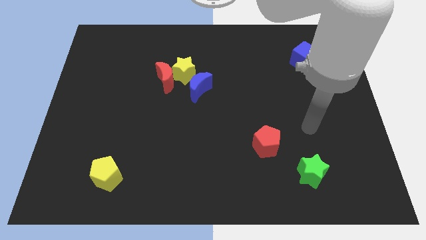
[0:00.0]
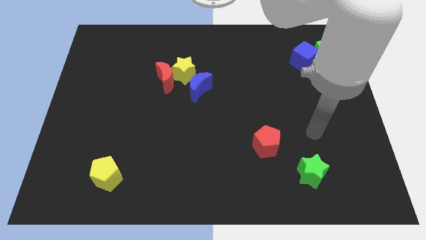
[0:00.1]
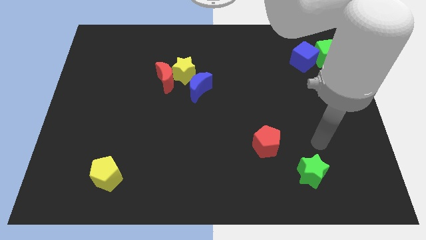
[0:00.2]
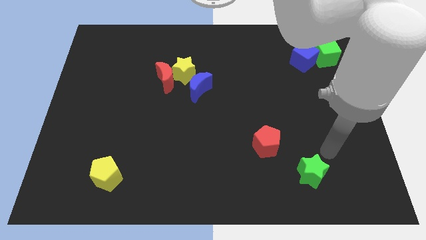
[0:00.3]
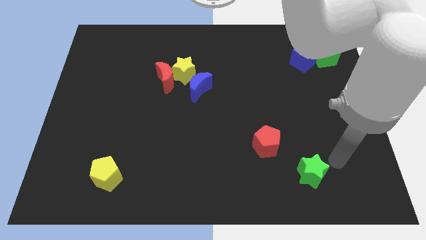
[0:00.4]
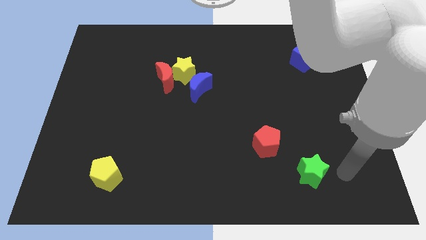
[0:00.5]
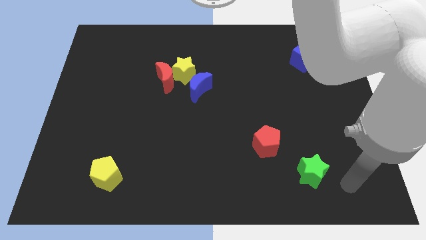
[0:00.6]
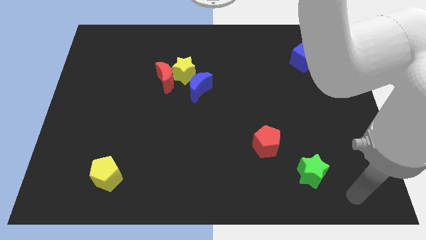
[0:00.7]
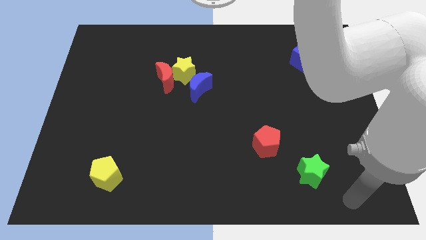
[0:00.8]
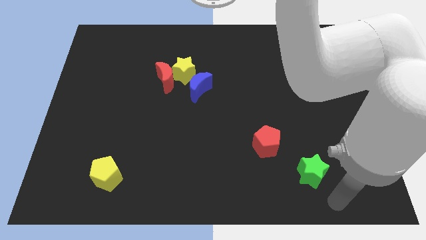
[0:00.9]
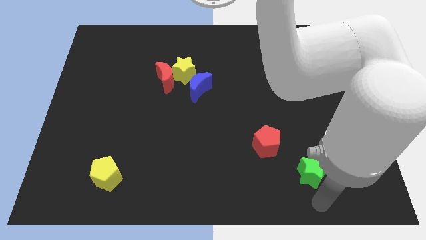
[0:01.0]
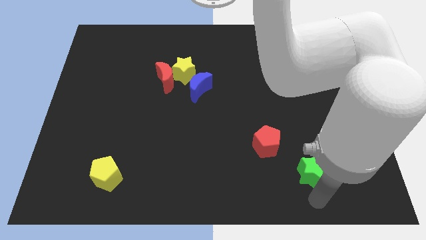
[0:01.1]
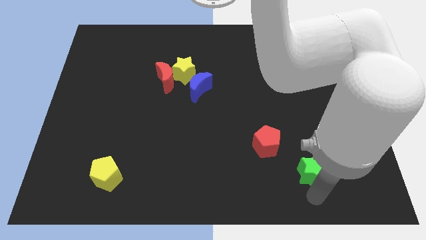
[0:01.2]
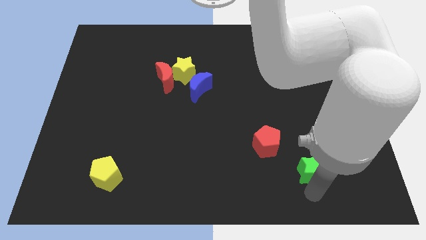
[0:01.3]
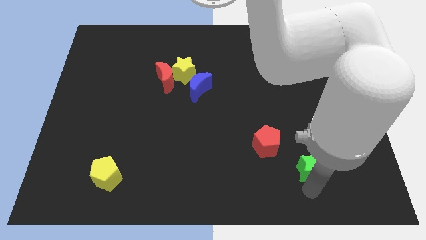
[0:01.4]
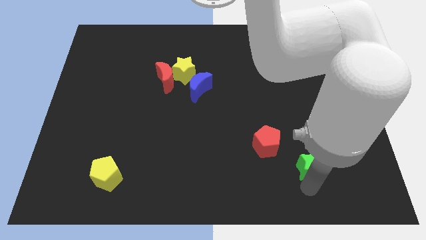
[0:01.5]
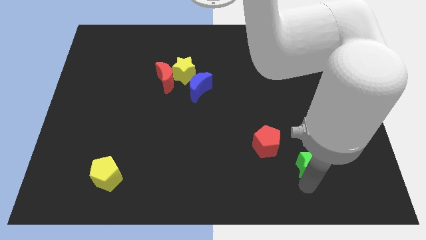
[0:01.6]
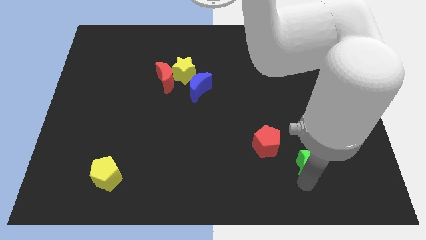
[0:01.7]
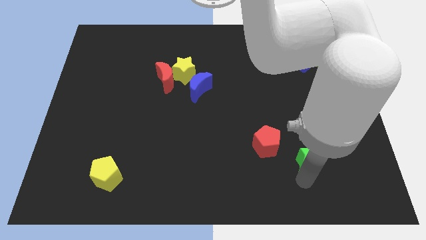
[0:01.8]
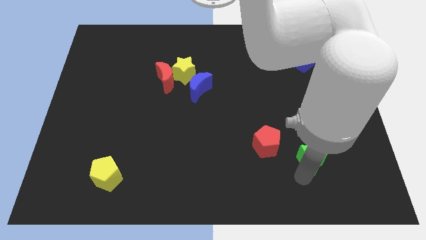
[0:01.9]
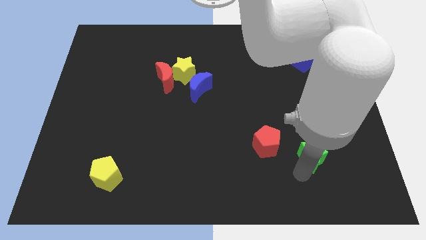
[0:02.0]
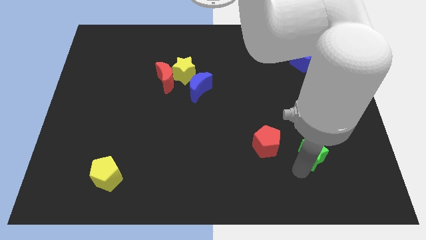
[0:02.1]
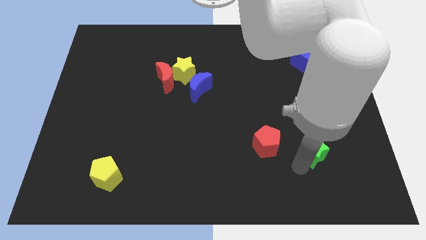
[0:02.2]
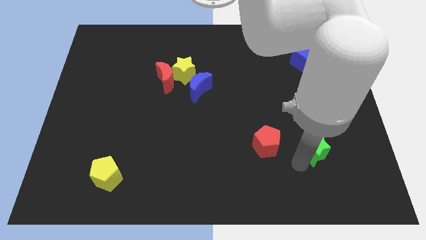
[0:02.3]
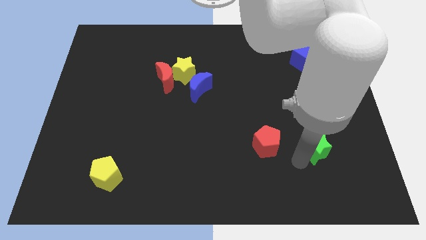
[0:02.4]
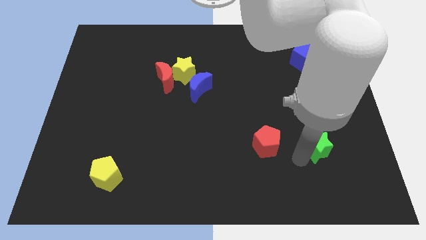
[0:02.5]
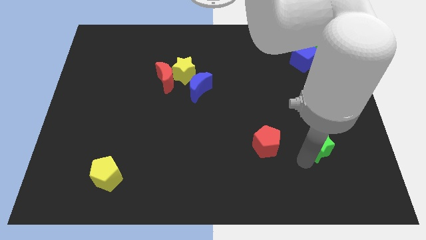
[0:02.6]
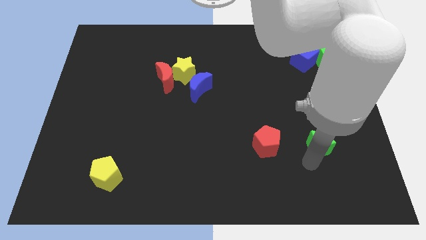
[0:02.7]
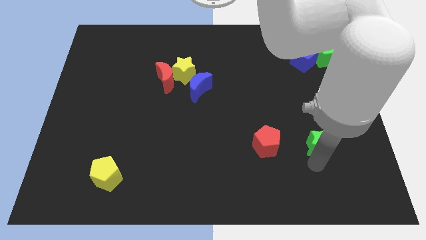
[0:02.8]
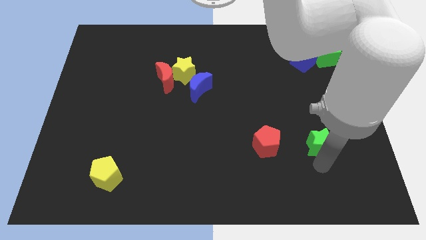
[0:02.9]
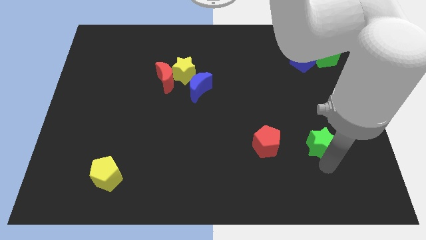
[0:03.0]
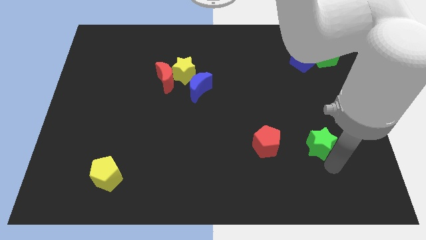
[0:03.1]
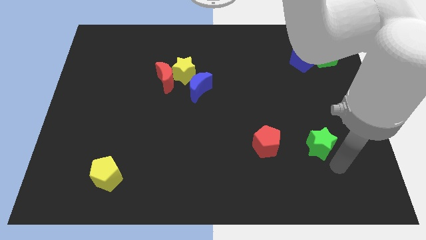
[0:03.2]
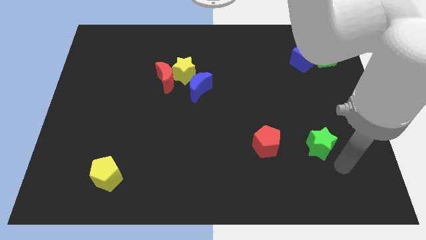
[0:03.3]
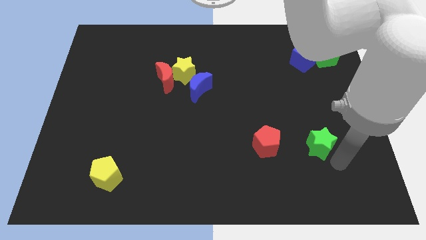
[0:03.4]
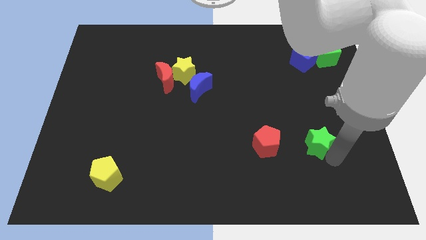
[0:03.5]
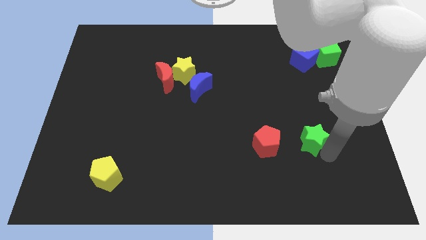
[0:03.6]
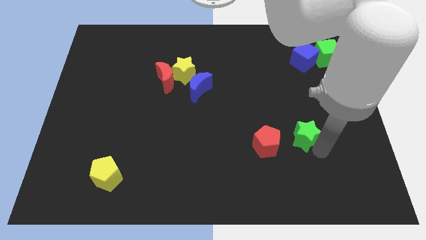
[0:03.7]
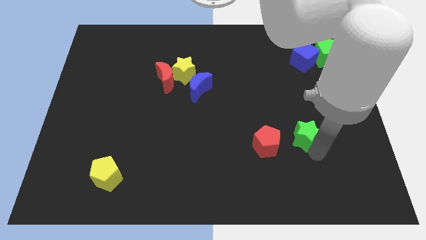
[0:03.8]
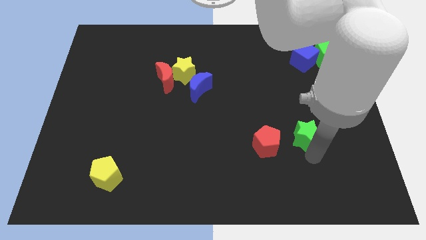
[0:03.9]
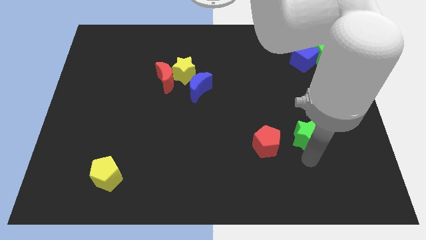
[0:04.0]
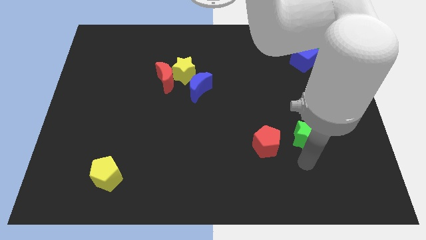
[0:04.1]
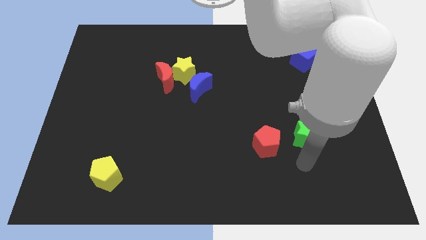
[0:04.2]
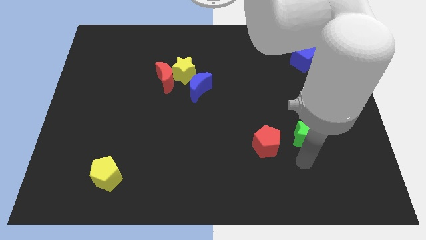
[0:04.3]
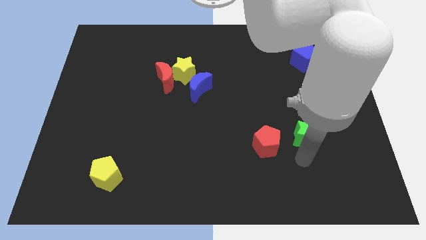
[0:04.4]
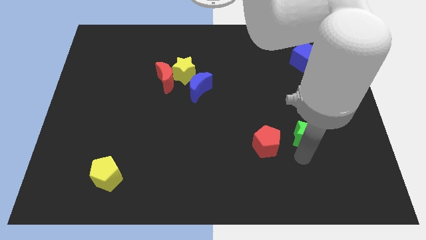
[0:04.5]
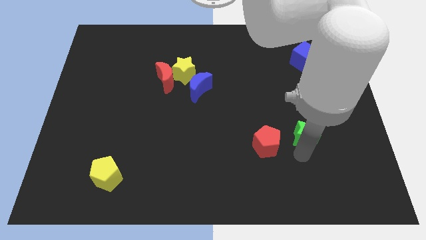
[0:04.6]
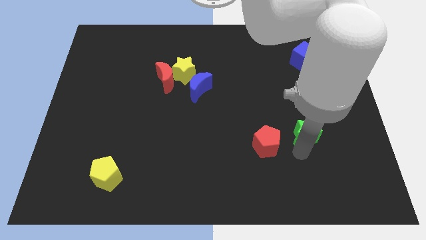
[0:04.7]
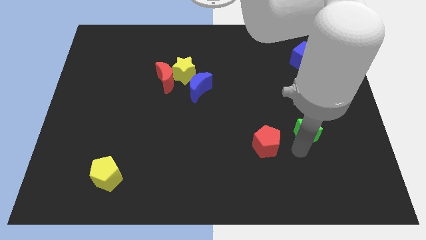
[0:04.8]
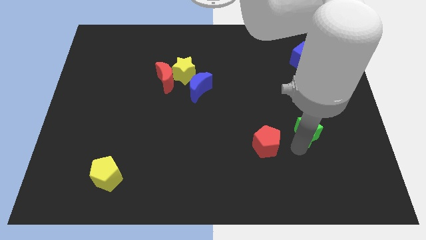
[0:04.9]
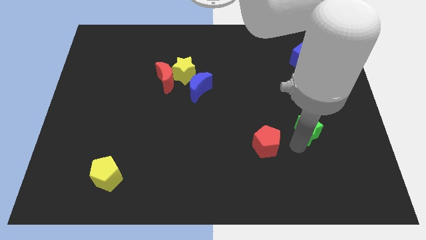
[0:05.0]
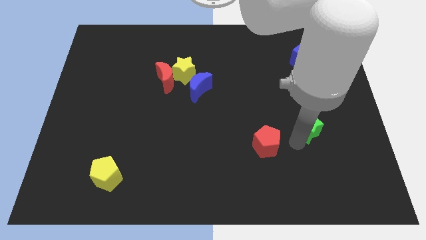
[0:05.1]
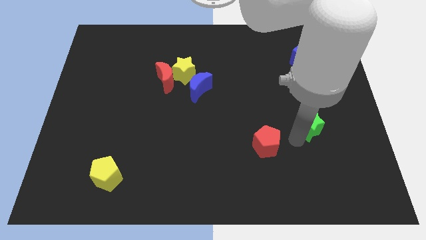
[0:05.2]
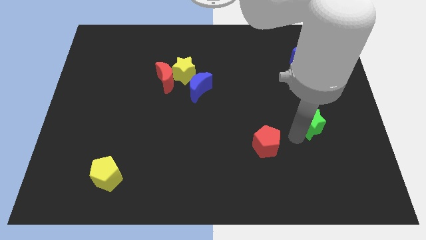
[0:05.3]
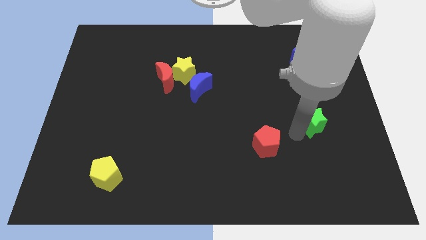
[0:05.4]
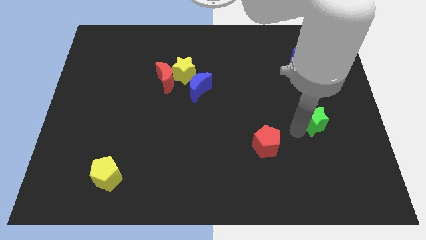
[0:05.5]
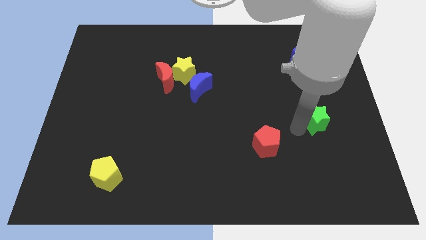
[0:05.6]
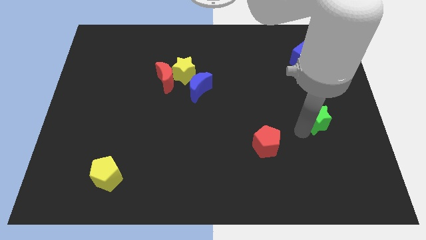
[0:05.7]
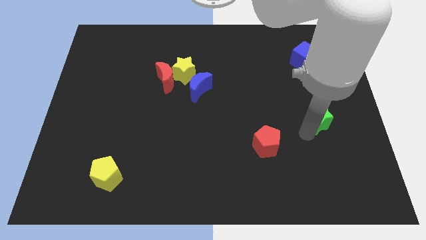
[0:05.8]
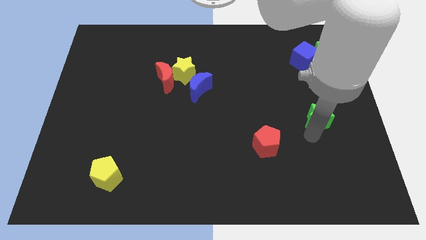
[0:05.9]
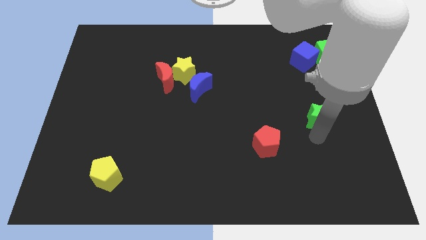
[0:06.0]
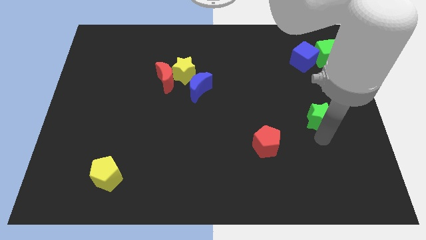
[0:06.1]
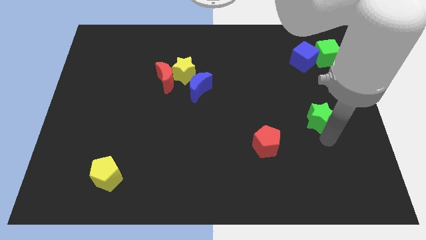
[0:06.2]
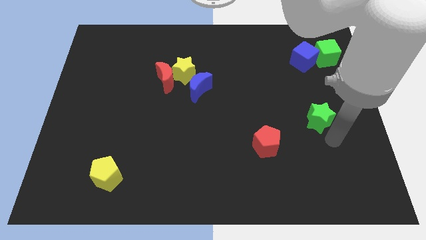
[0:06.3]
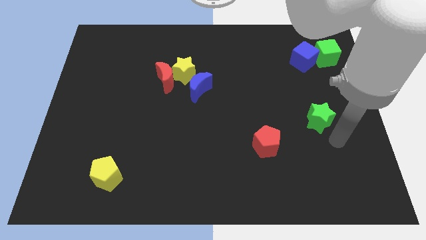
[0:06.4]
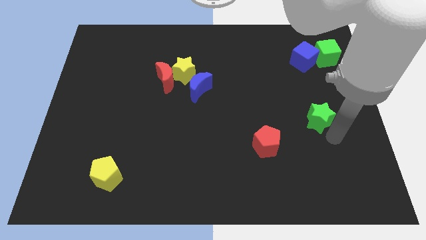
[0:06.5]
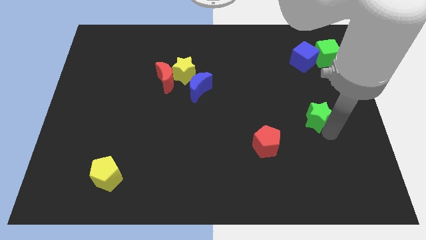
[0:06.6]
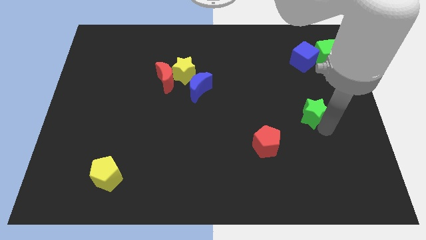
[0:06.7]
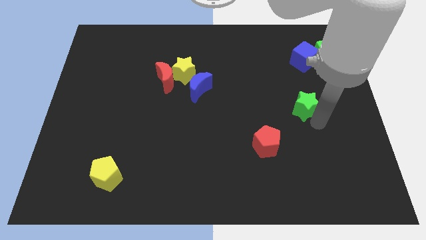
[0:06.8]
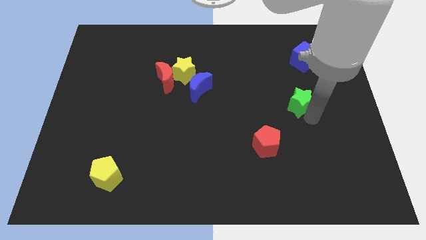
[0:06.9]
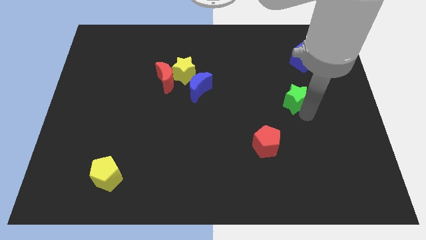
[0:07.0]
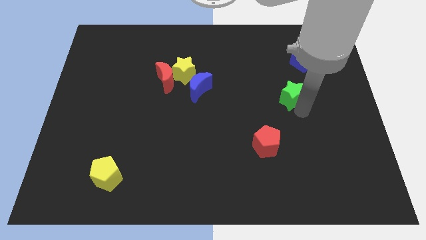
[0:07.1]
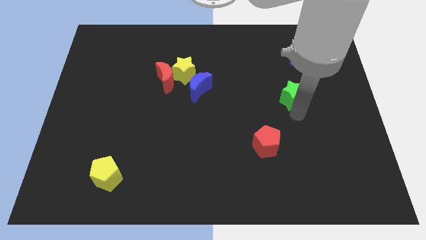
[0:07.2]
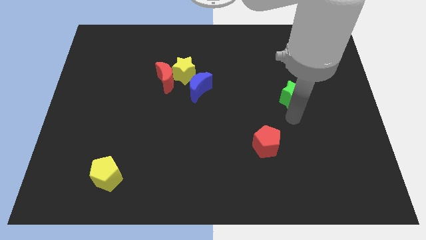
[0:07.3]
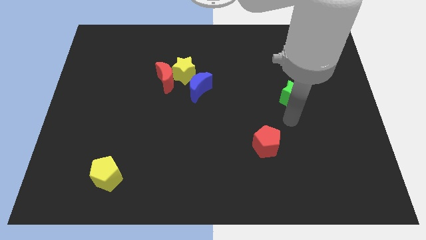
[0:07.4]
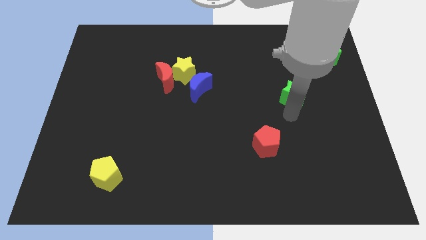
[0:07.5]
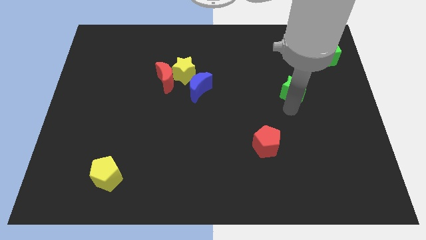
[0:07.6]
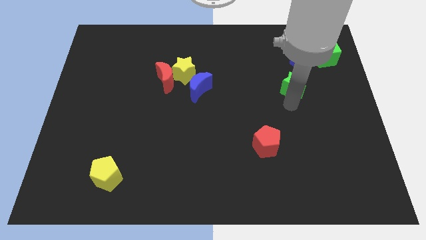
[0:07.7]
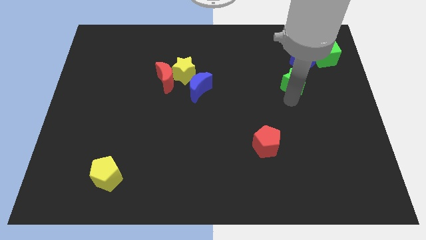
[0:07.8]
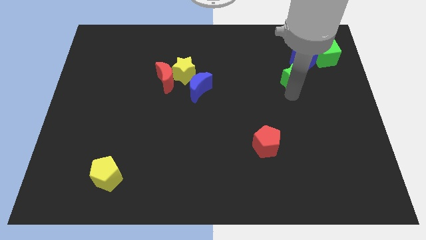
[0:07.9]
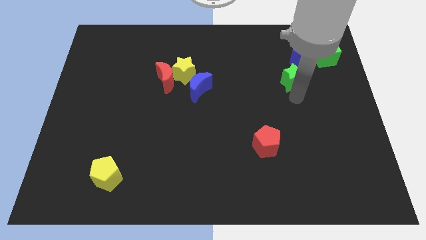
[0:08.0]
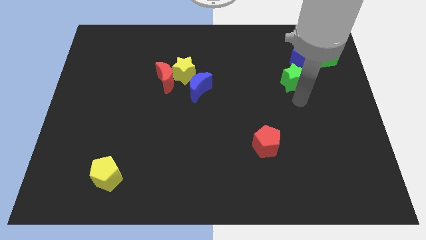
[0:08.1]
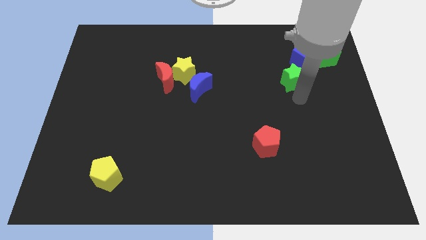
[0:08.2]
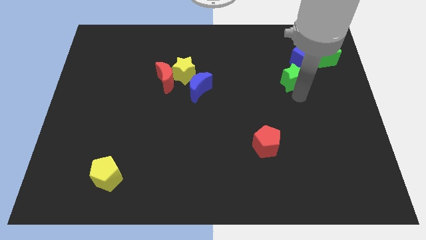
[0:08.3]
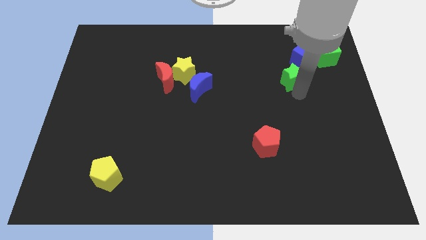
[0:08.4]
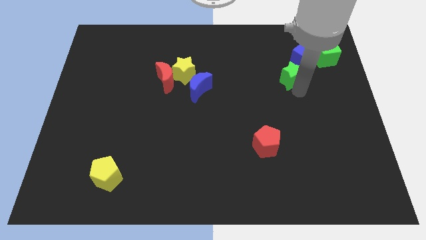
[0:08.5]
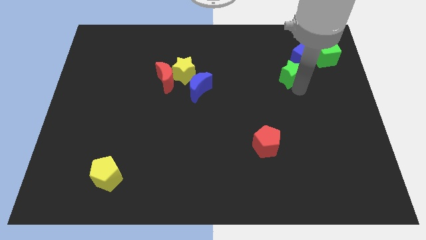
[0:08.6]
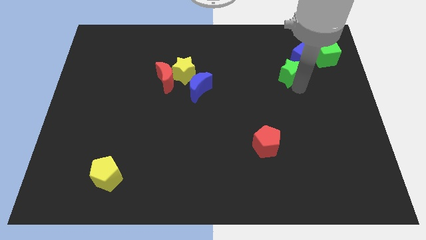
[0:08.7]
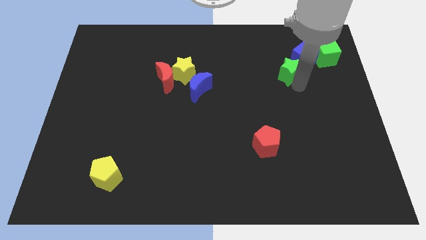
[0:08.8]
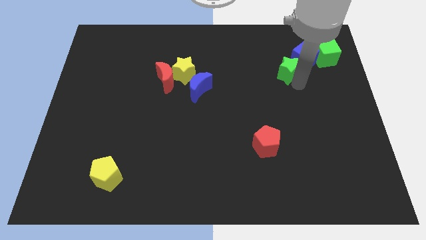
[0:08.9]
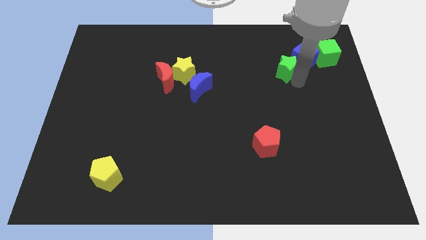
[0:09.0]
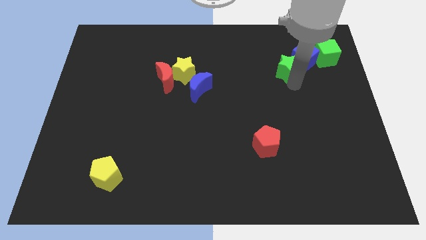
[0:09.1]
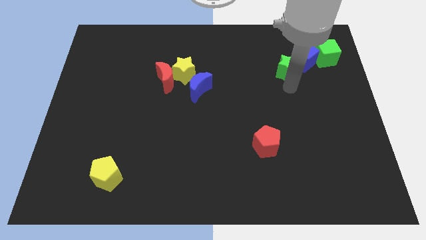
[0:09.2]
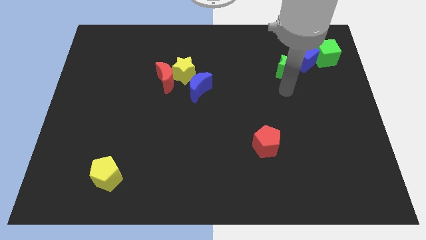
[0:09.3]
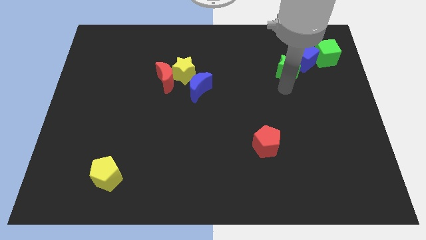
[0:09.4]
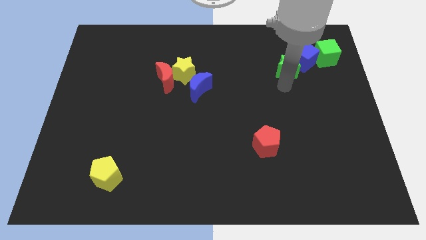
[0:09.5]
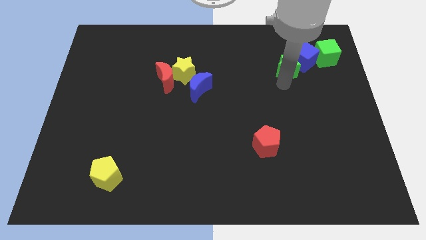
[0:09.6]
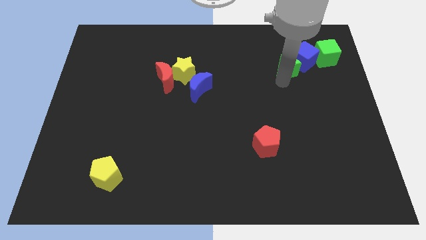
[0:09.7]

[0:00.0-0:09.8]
move the green star just left of the green cube
